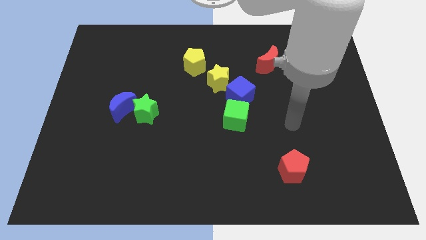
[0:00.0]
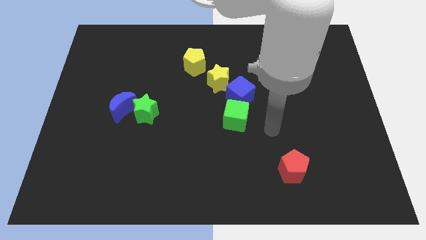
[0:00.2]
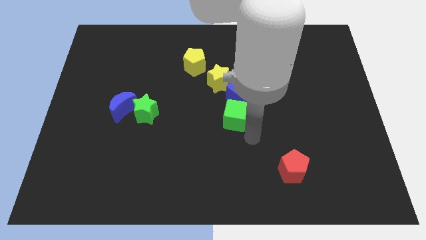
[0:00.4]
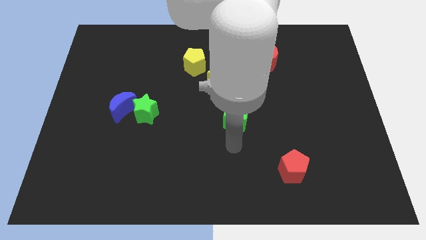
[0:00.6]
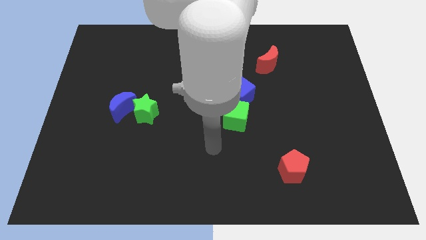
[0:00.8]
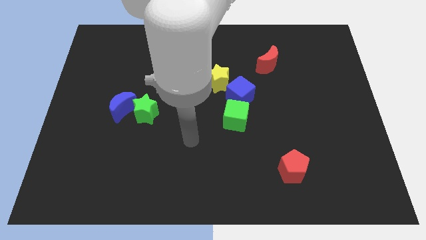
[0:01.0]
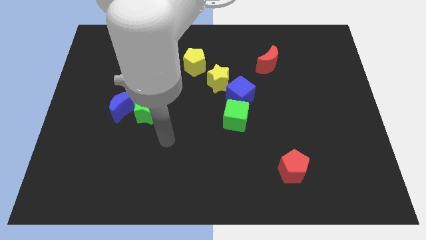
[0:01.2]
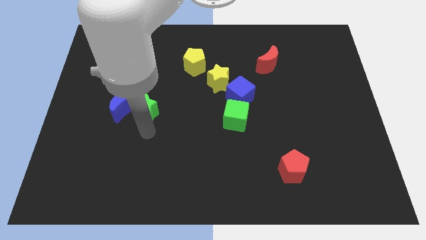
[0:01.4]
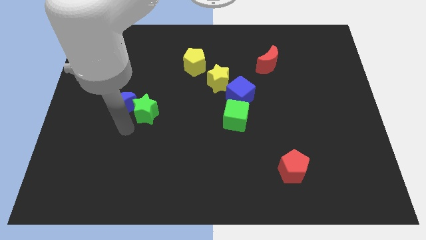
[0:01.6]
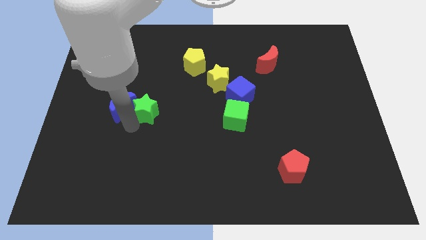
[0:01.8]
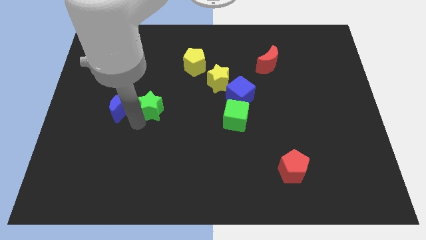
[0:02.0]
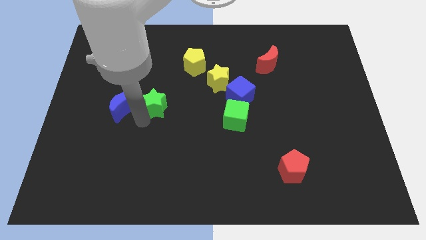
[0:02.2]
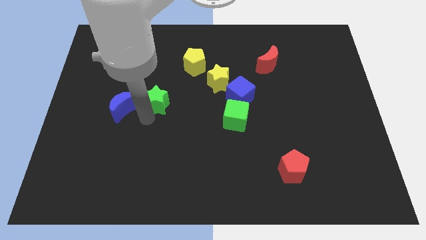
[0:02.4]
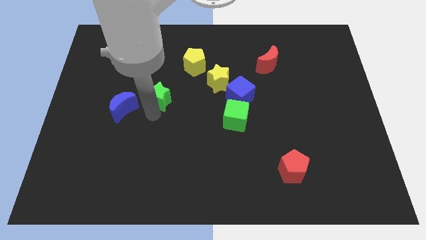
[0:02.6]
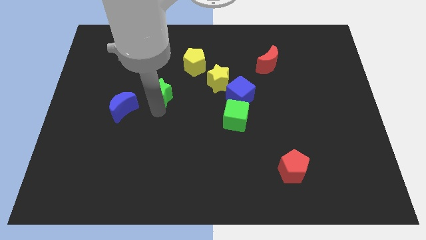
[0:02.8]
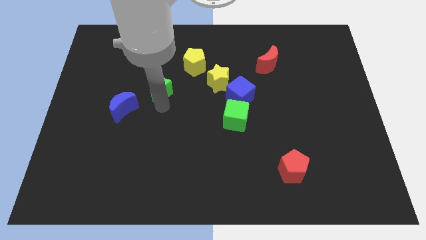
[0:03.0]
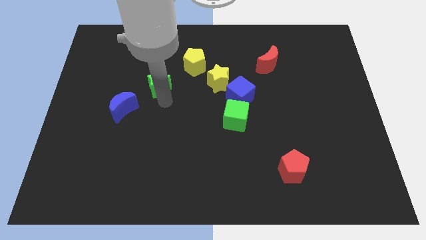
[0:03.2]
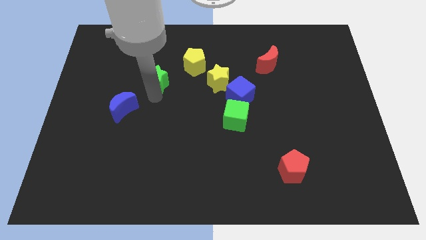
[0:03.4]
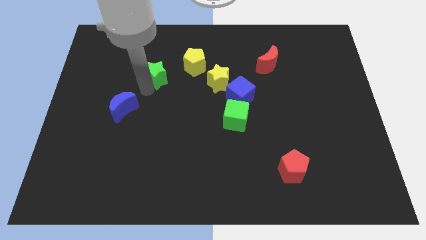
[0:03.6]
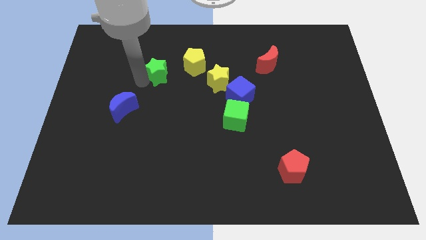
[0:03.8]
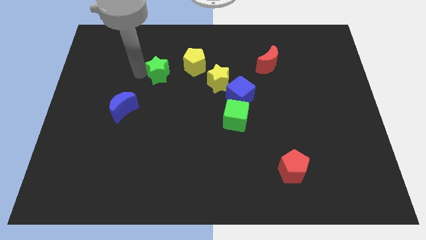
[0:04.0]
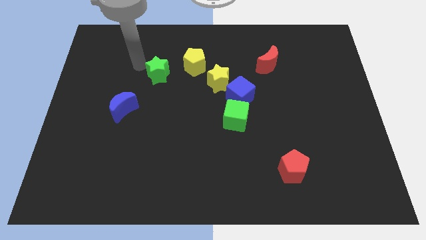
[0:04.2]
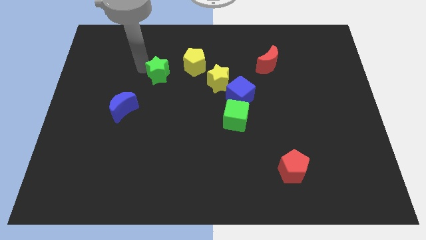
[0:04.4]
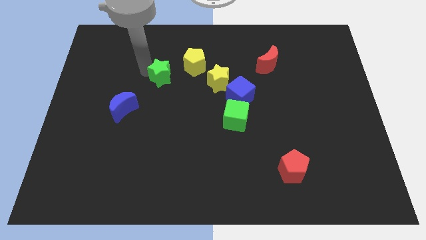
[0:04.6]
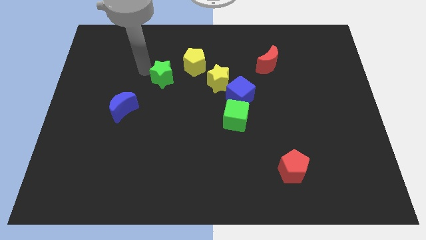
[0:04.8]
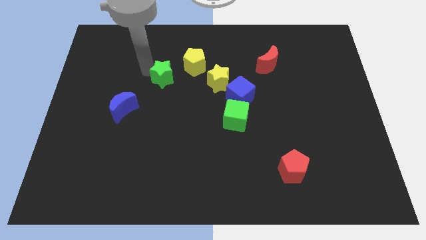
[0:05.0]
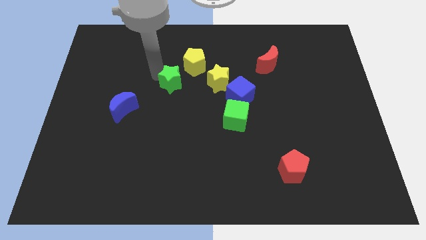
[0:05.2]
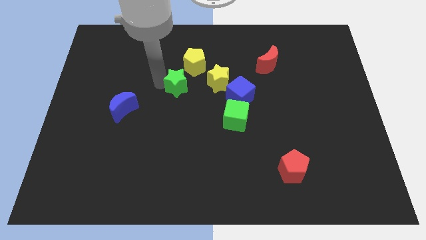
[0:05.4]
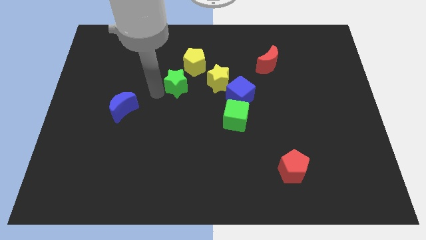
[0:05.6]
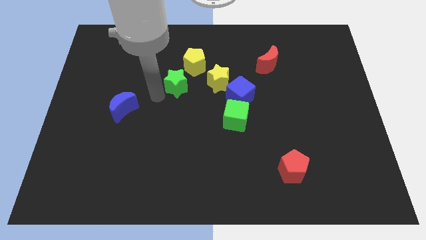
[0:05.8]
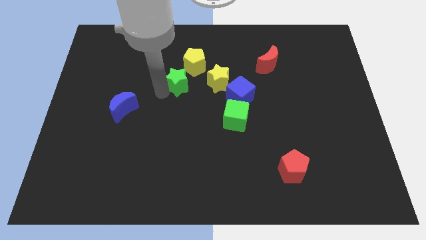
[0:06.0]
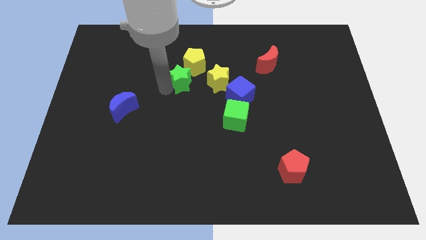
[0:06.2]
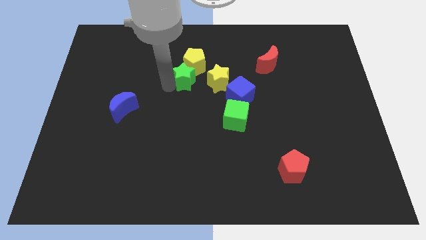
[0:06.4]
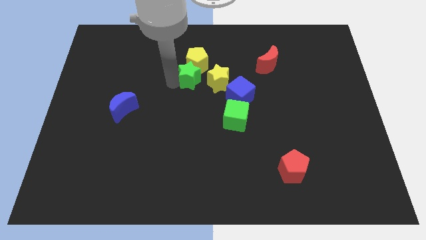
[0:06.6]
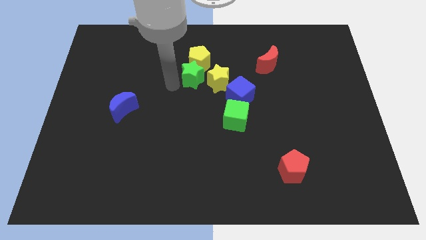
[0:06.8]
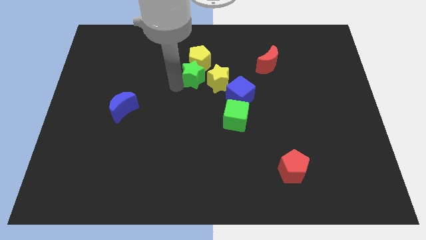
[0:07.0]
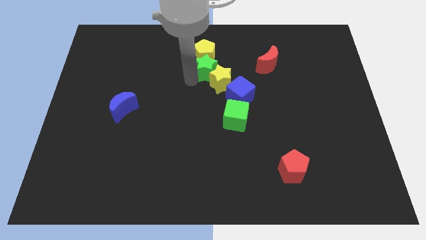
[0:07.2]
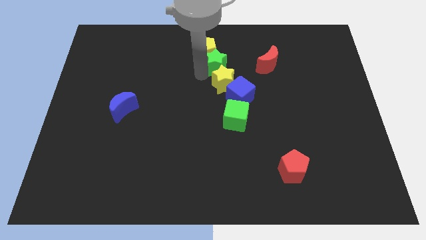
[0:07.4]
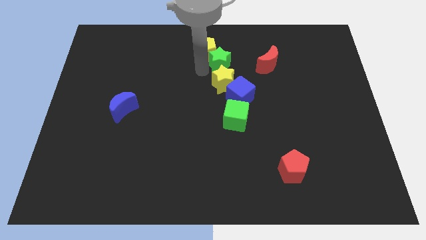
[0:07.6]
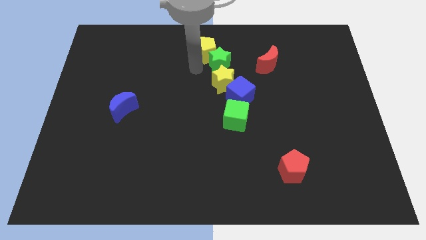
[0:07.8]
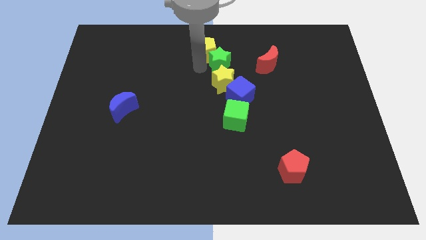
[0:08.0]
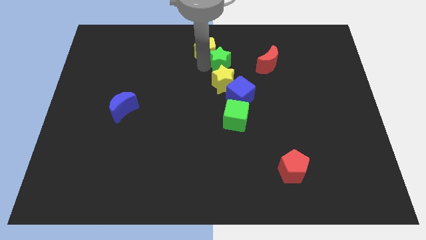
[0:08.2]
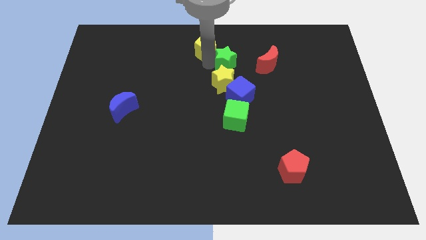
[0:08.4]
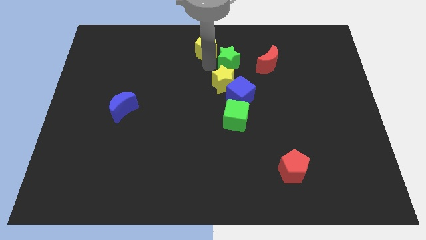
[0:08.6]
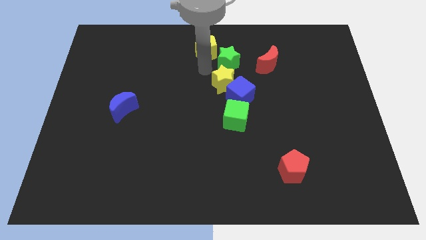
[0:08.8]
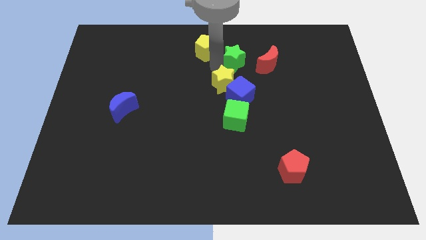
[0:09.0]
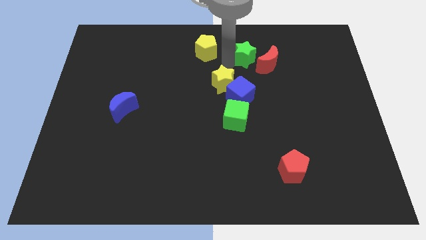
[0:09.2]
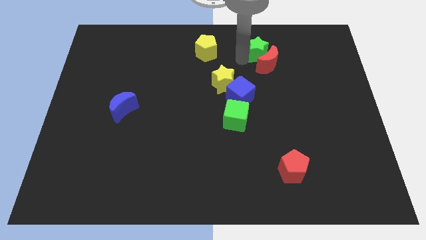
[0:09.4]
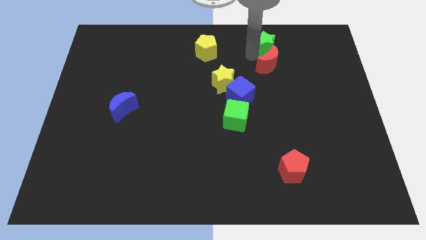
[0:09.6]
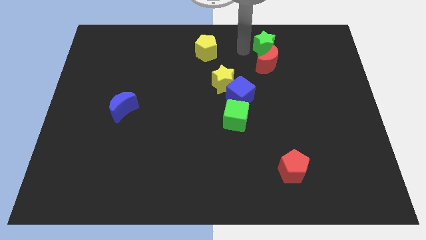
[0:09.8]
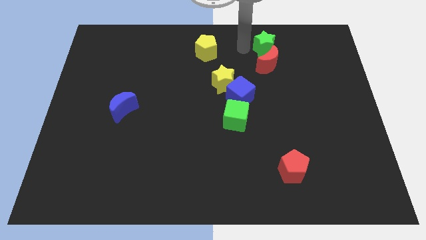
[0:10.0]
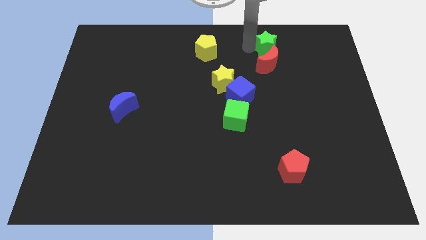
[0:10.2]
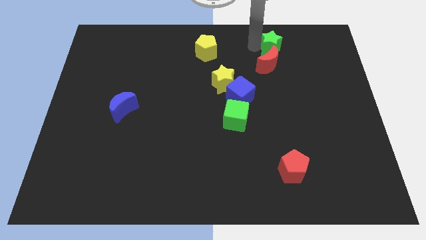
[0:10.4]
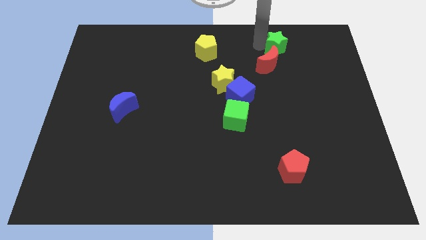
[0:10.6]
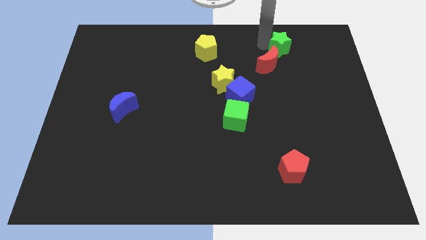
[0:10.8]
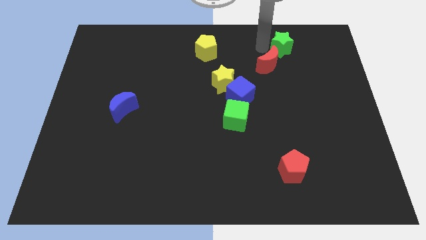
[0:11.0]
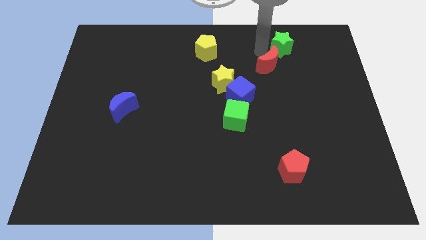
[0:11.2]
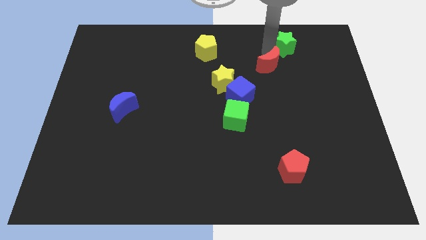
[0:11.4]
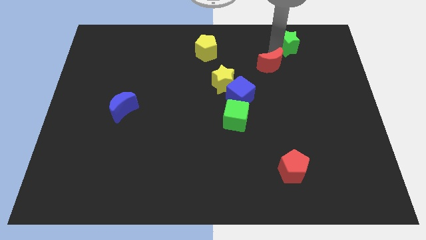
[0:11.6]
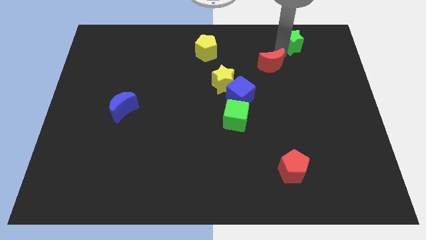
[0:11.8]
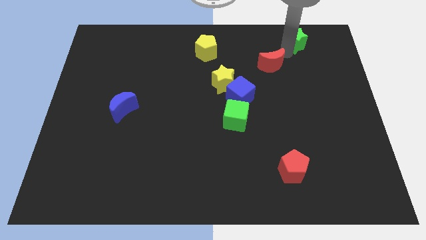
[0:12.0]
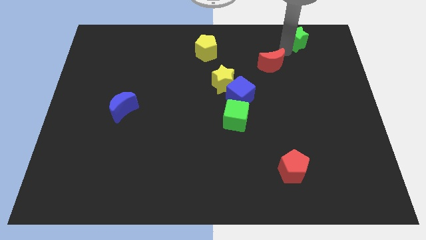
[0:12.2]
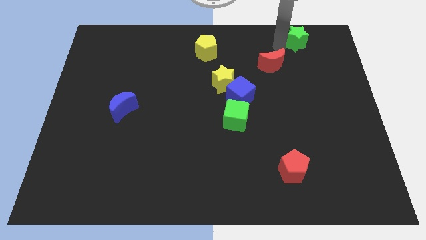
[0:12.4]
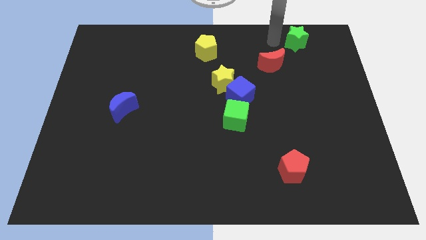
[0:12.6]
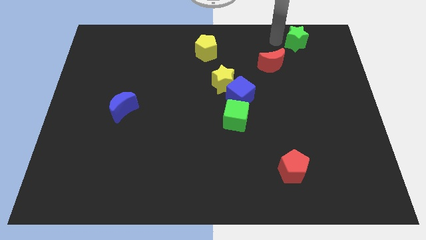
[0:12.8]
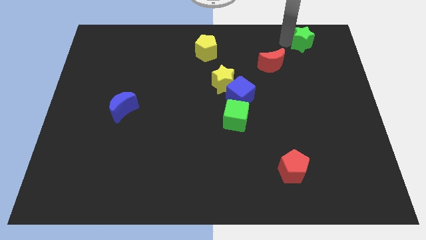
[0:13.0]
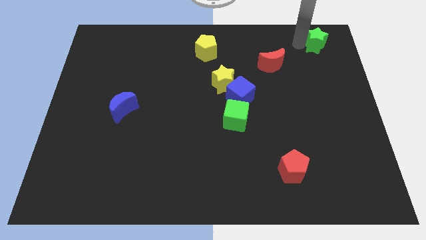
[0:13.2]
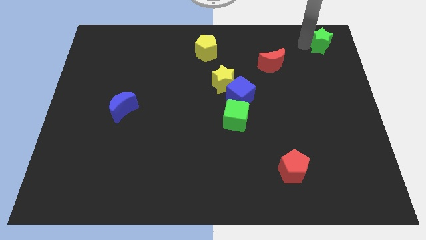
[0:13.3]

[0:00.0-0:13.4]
move the green star to the top right of the board

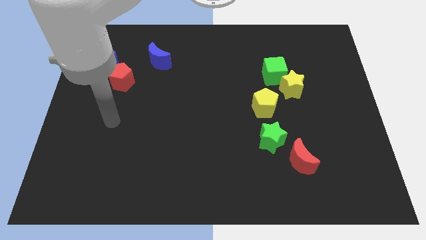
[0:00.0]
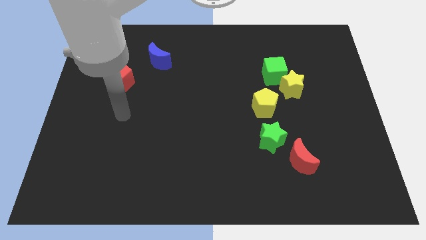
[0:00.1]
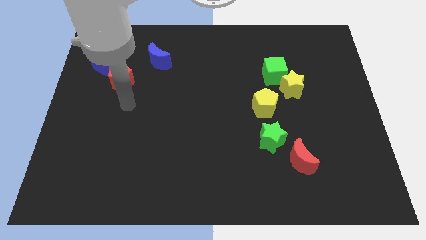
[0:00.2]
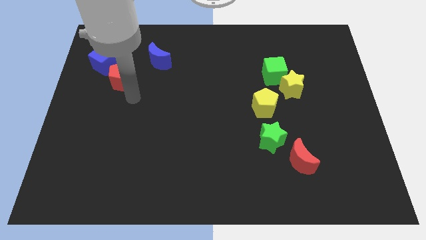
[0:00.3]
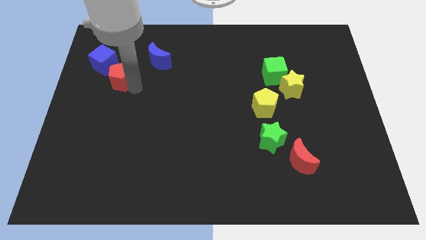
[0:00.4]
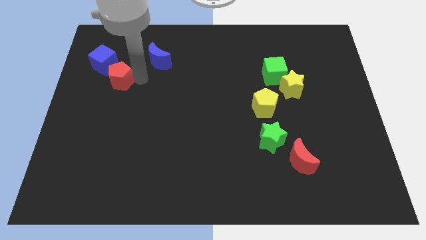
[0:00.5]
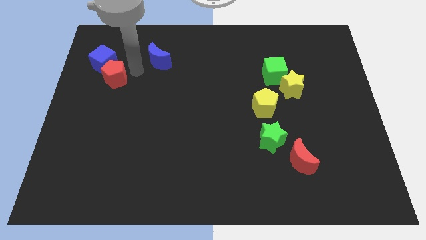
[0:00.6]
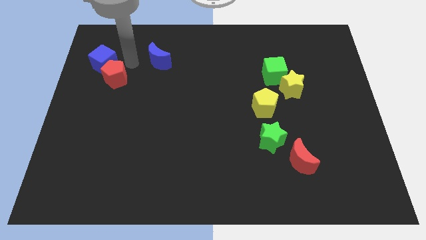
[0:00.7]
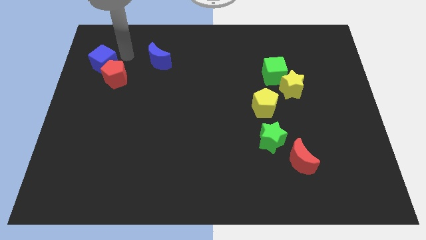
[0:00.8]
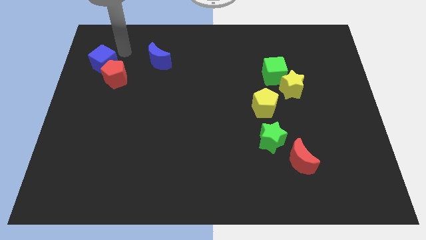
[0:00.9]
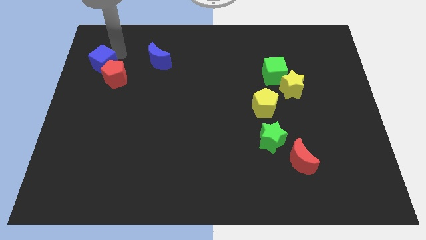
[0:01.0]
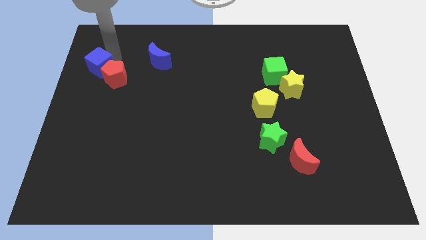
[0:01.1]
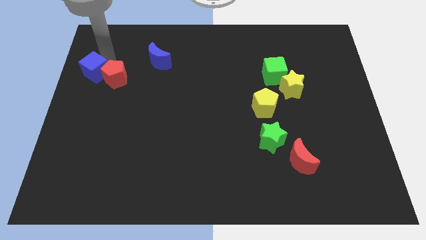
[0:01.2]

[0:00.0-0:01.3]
put the blue cube to the center left
